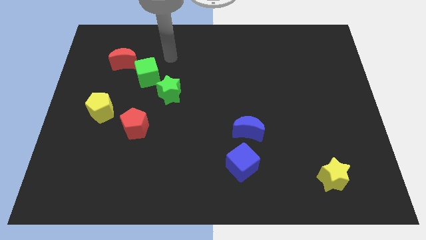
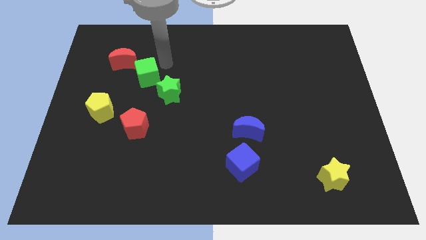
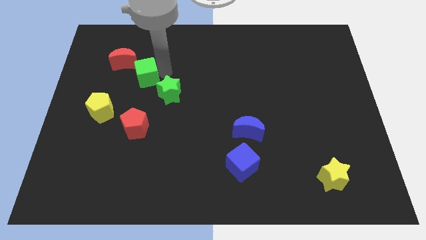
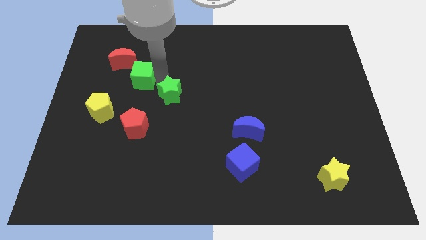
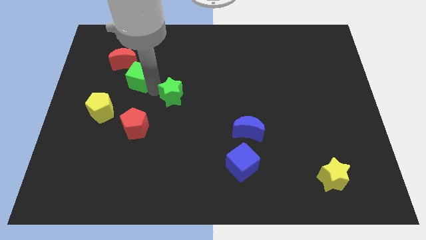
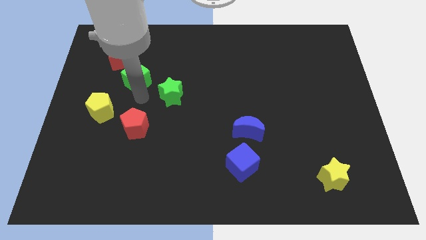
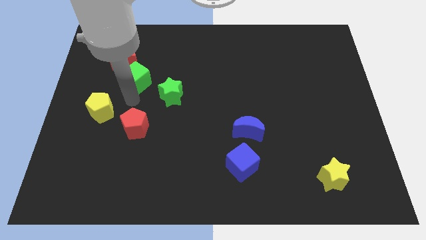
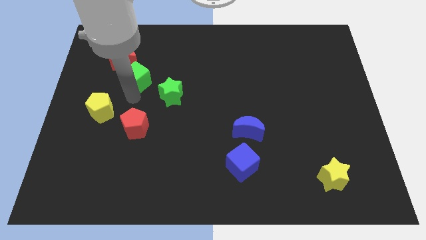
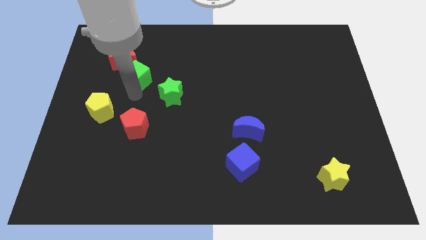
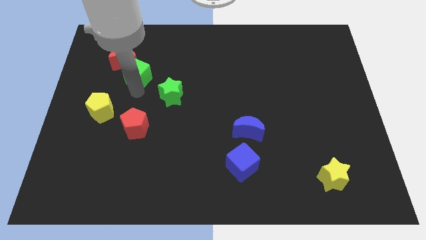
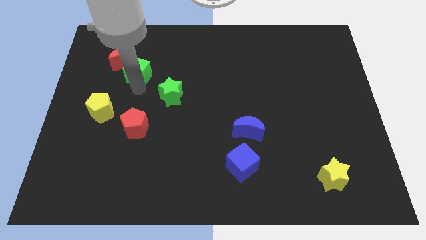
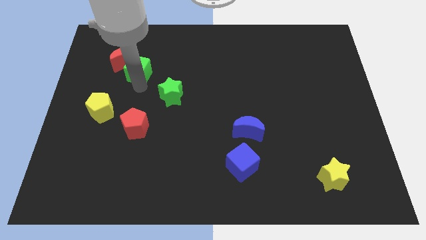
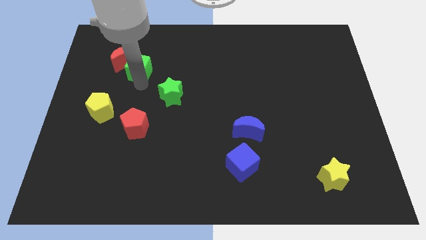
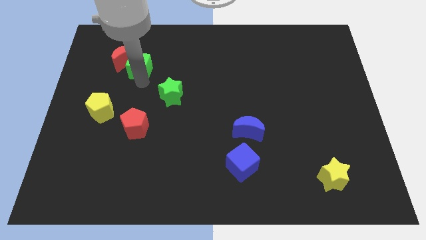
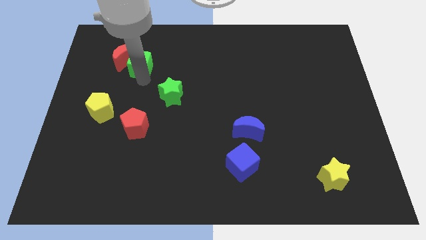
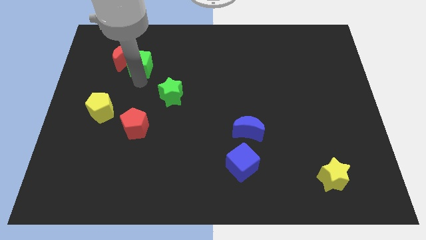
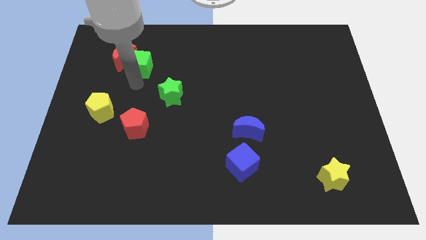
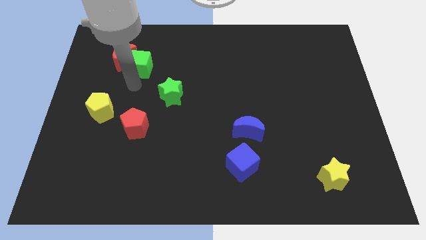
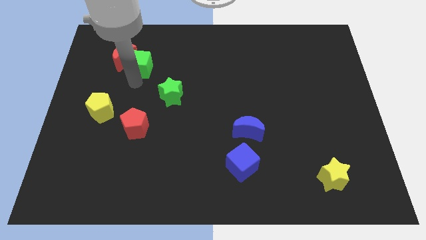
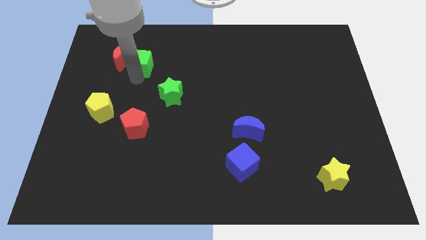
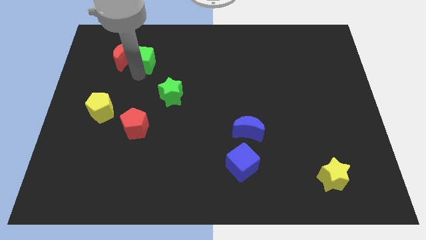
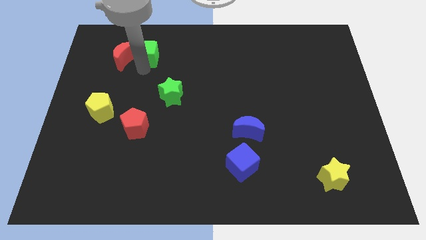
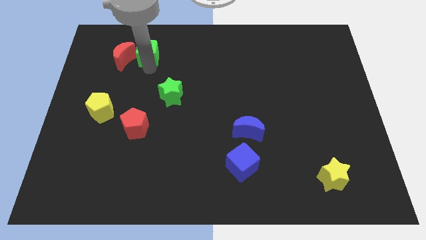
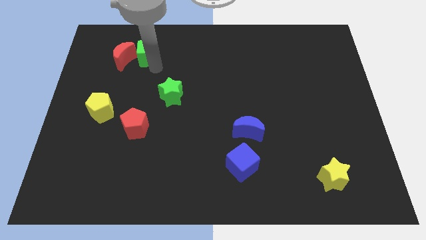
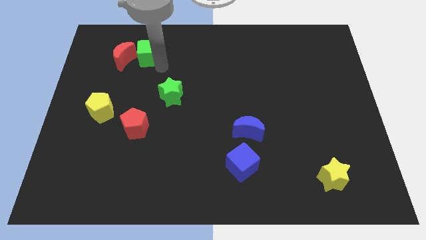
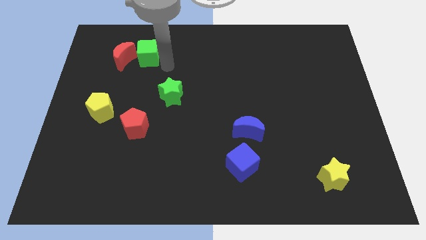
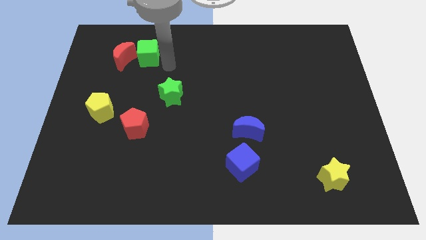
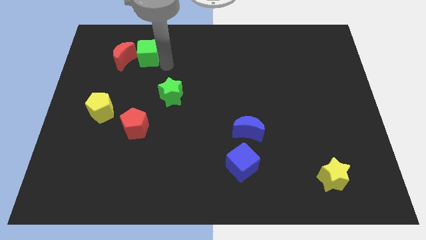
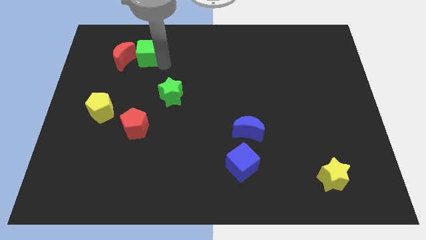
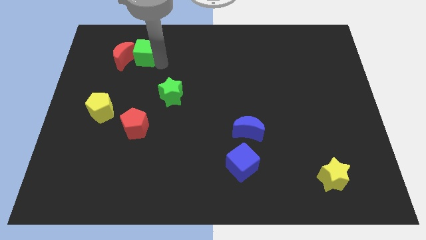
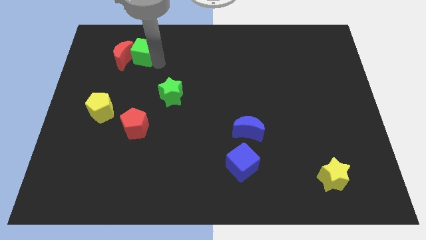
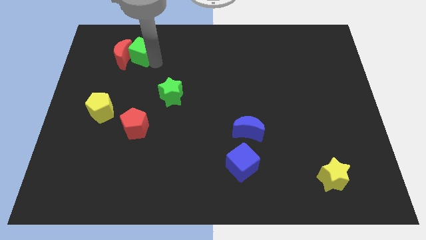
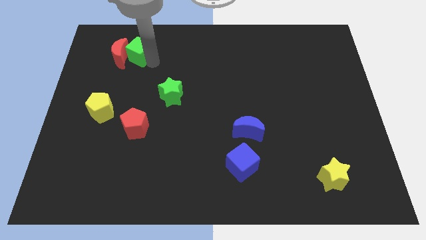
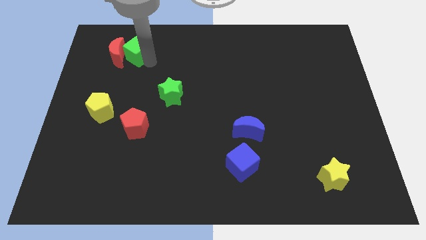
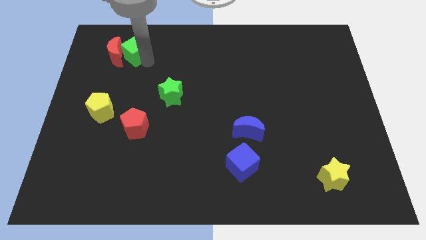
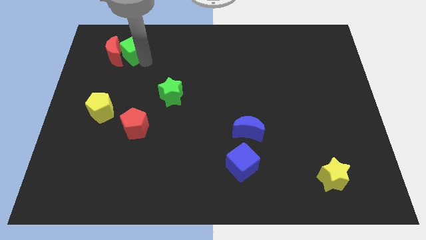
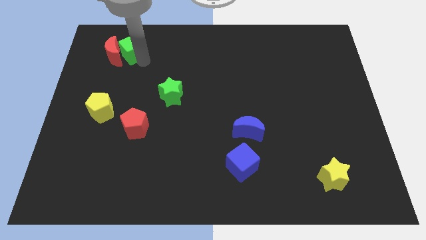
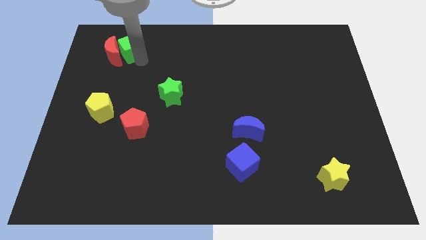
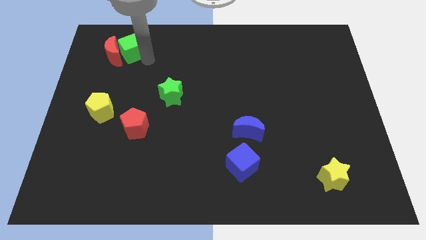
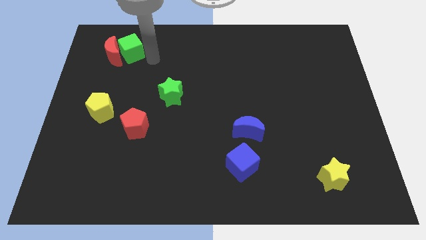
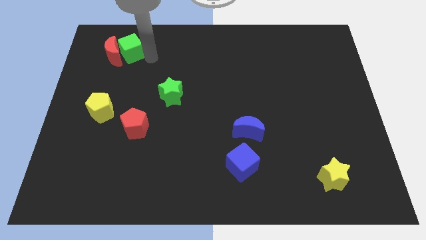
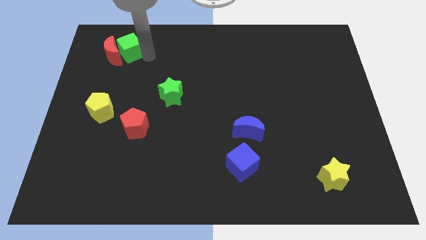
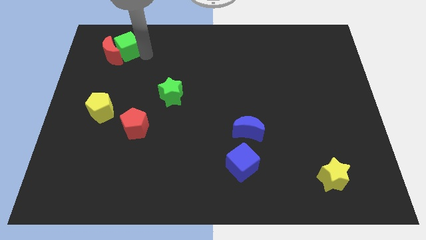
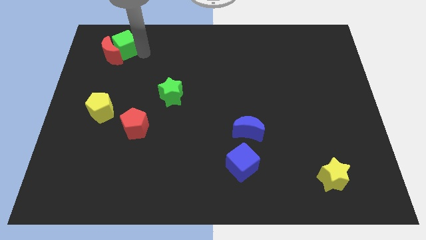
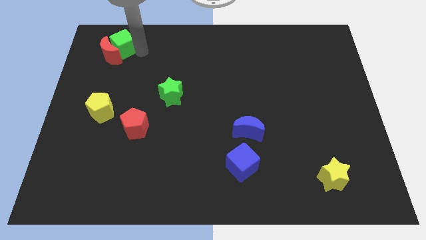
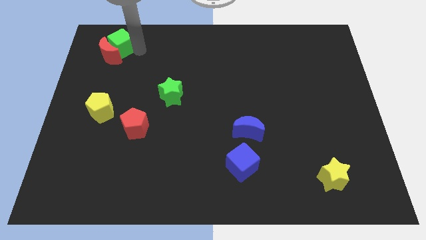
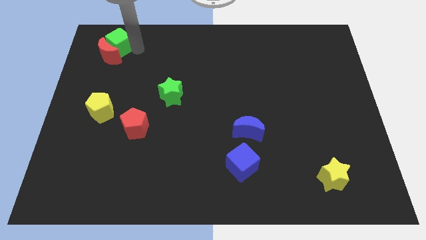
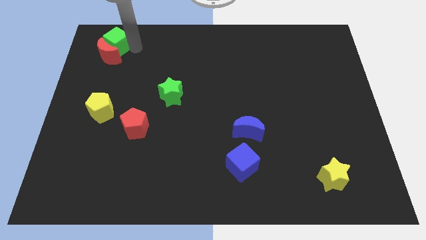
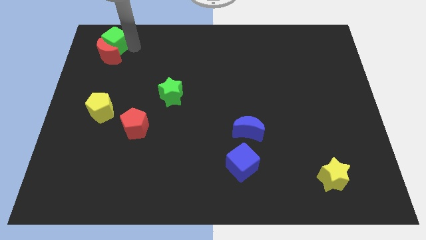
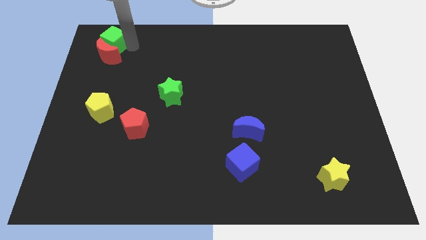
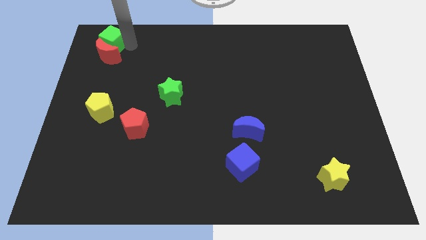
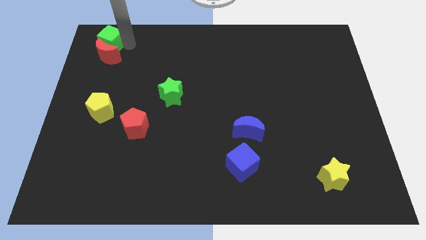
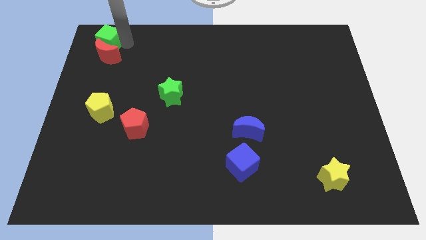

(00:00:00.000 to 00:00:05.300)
push the green cube to the upper left corner
